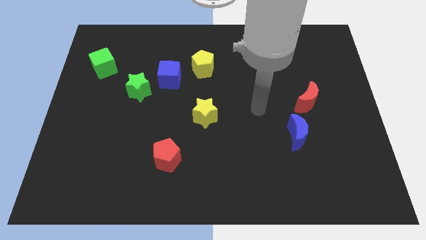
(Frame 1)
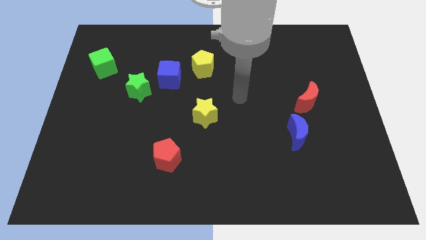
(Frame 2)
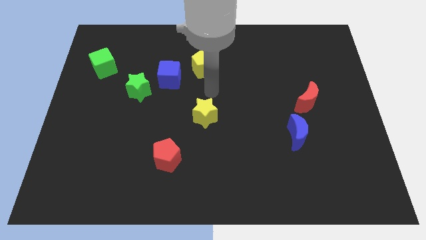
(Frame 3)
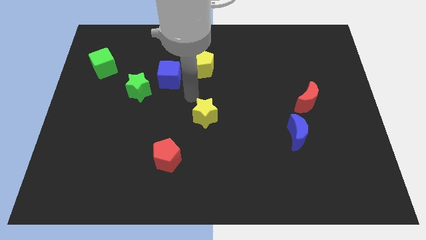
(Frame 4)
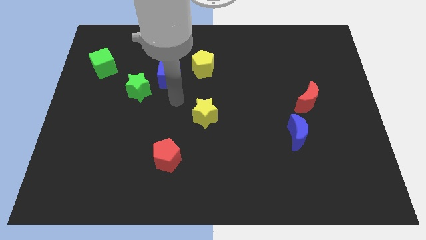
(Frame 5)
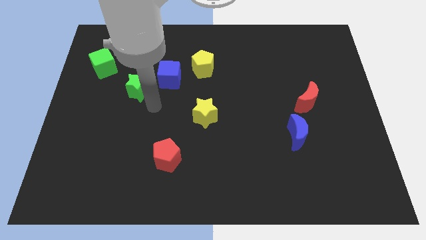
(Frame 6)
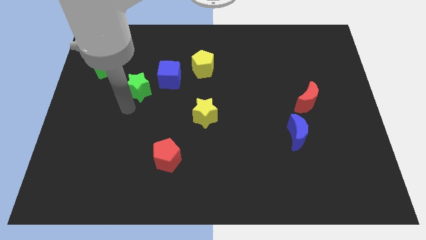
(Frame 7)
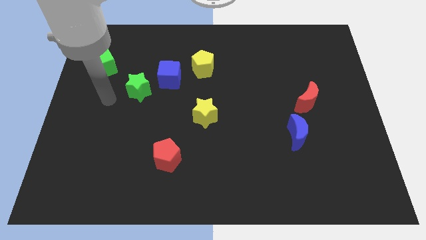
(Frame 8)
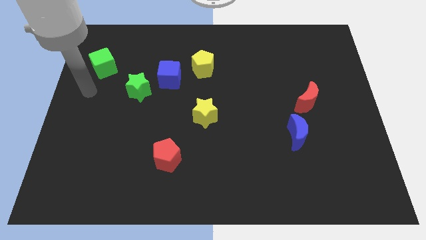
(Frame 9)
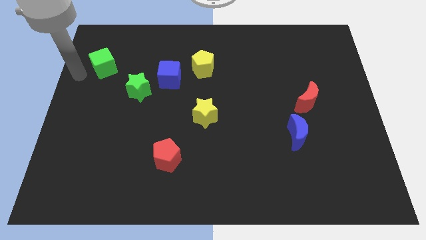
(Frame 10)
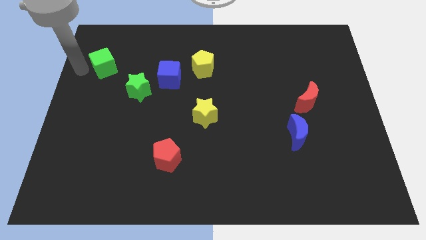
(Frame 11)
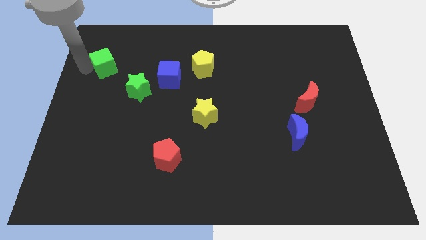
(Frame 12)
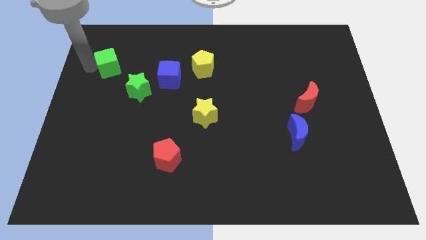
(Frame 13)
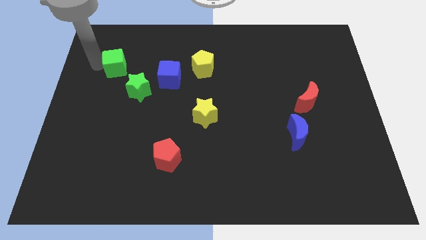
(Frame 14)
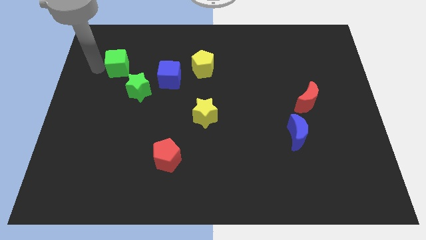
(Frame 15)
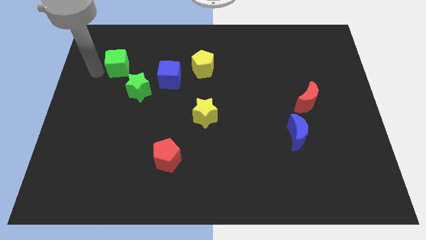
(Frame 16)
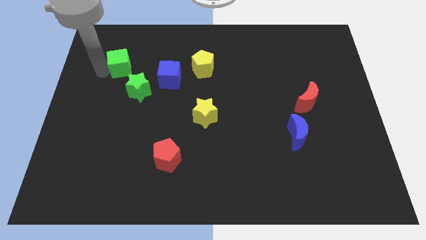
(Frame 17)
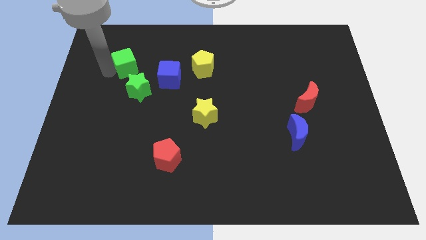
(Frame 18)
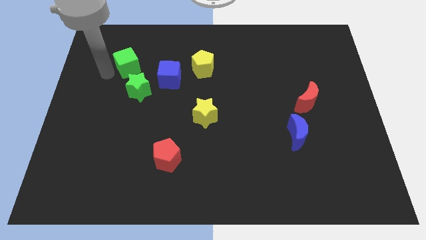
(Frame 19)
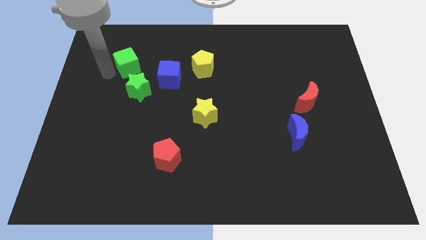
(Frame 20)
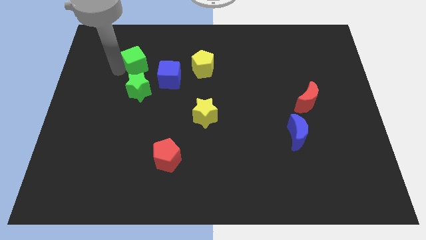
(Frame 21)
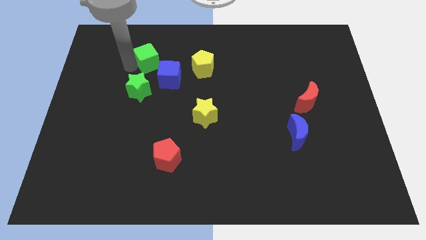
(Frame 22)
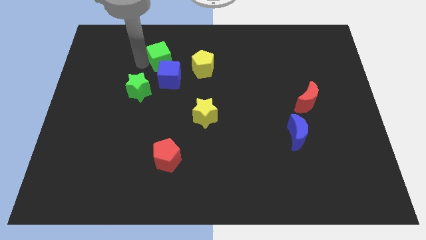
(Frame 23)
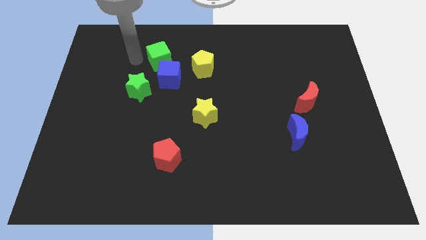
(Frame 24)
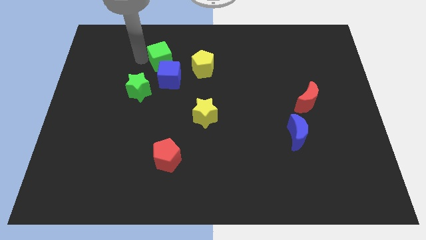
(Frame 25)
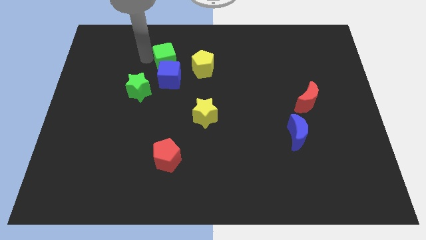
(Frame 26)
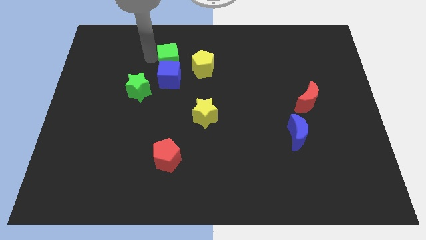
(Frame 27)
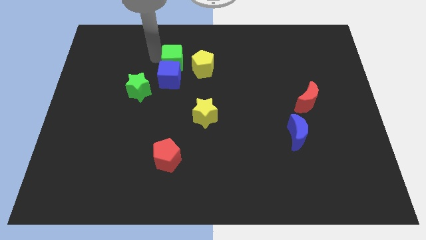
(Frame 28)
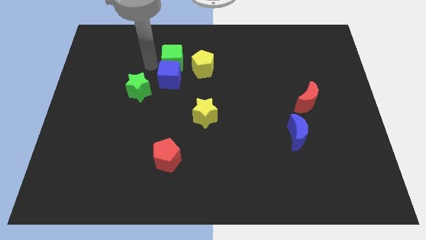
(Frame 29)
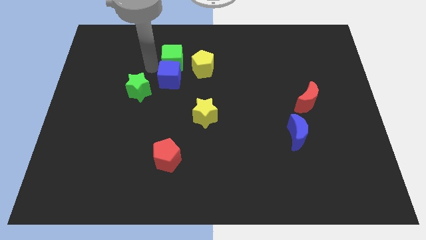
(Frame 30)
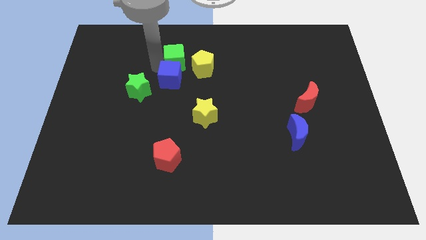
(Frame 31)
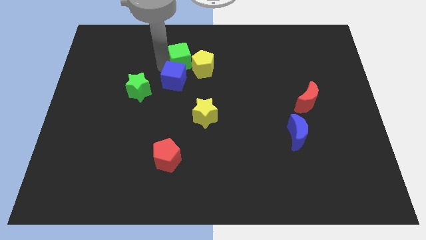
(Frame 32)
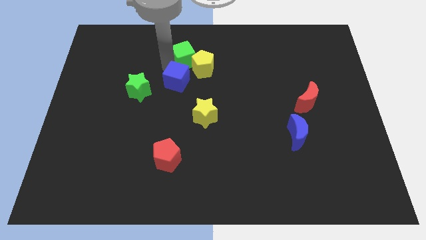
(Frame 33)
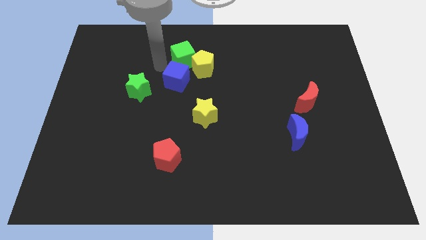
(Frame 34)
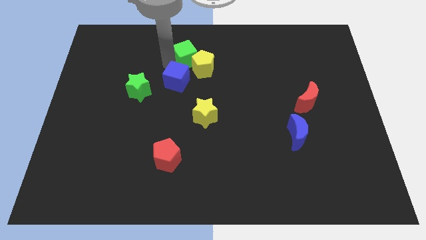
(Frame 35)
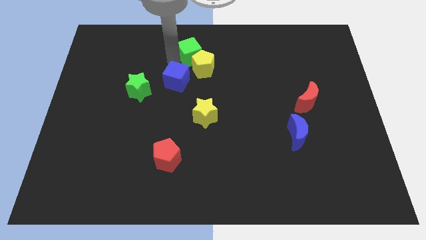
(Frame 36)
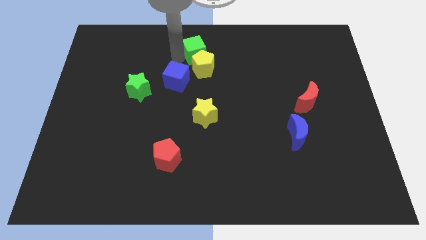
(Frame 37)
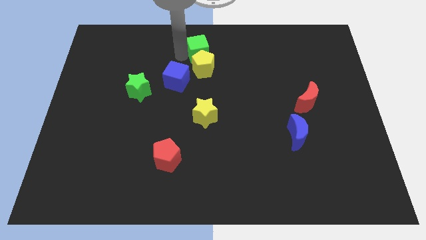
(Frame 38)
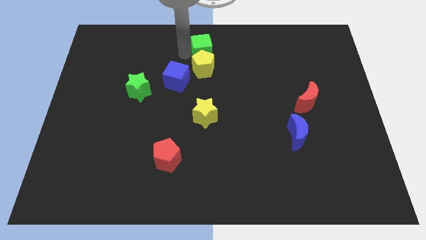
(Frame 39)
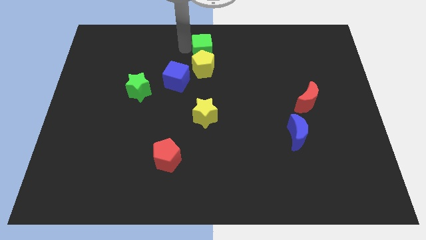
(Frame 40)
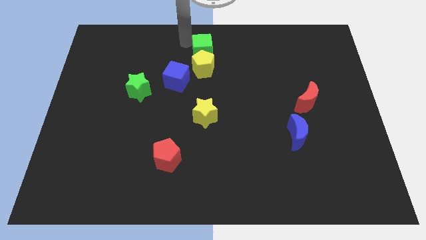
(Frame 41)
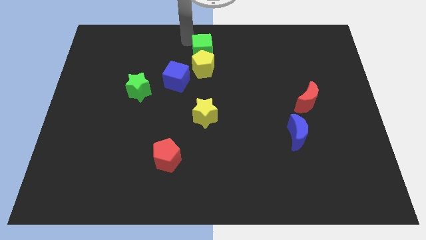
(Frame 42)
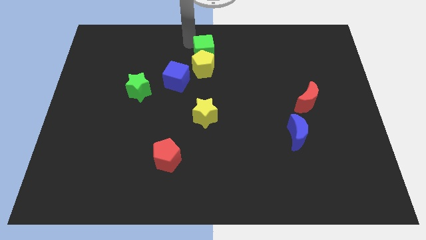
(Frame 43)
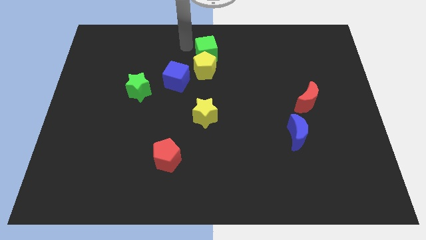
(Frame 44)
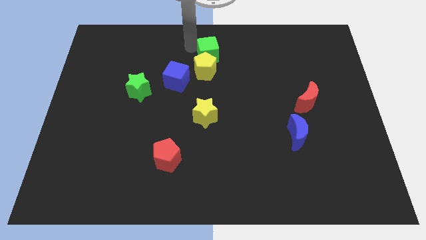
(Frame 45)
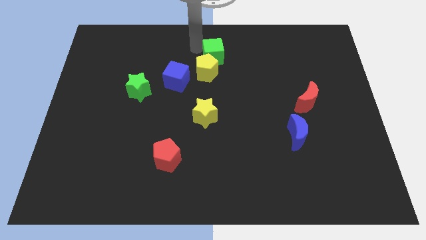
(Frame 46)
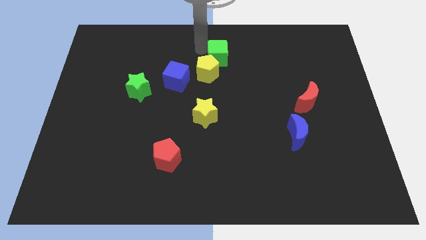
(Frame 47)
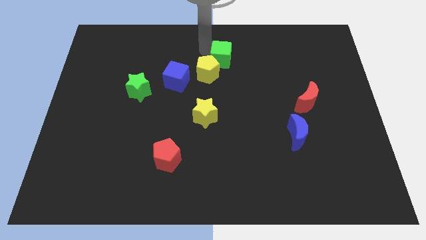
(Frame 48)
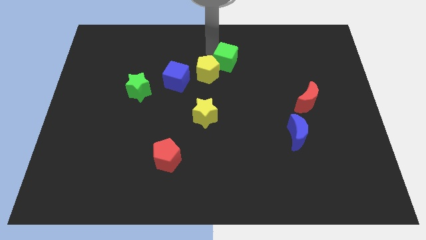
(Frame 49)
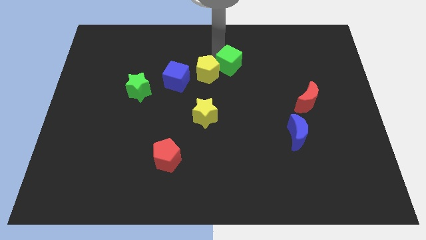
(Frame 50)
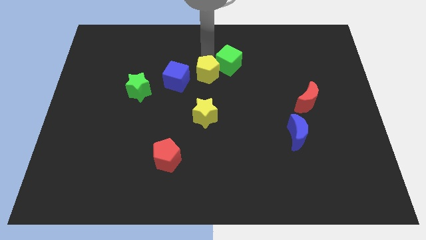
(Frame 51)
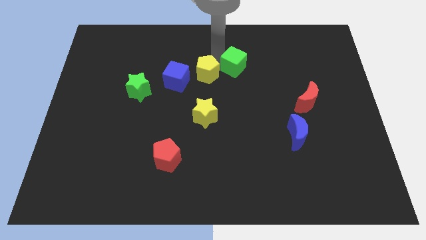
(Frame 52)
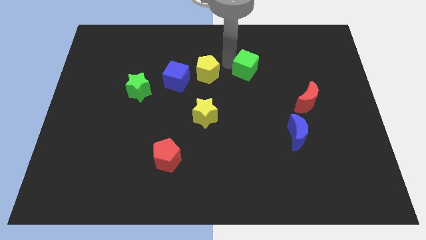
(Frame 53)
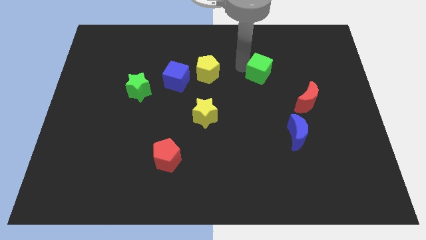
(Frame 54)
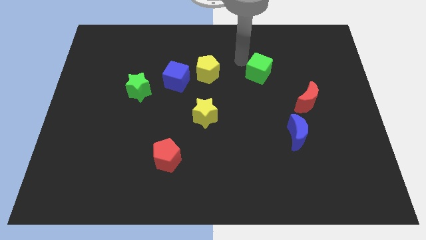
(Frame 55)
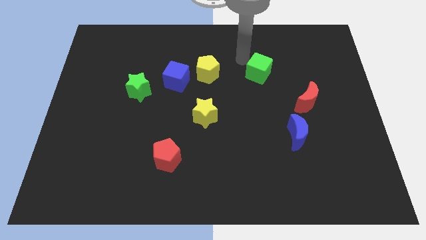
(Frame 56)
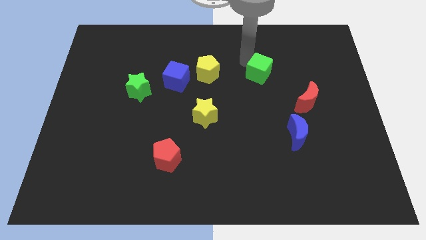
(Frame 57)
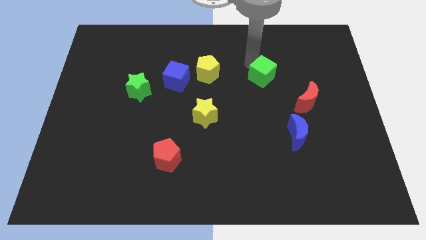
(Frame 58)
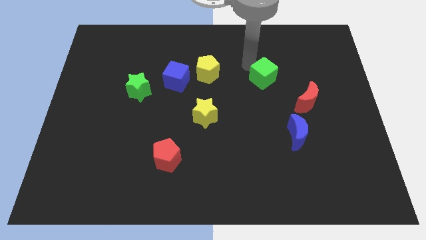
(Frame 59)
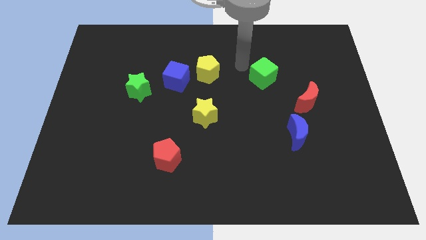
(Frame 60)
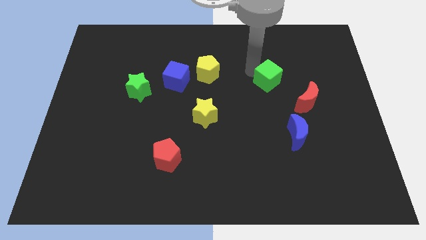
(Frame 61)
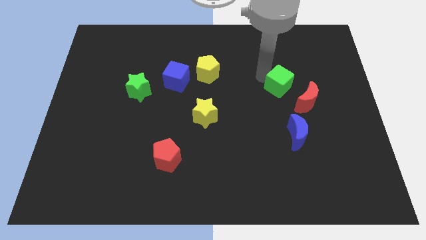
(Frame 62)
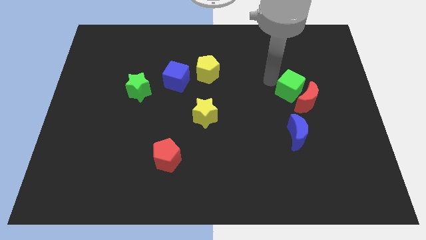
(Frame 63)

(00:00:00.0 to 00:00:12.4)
put the green cube to the red moon

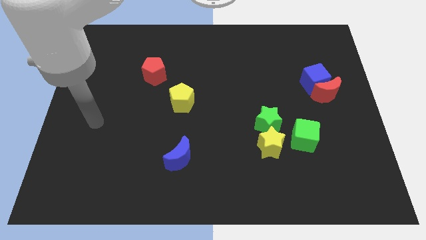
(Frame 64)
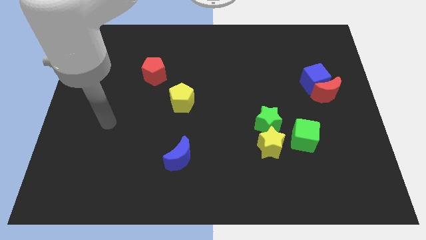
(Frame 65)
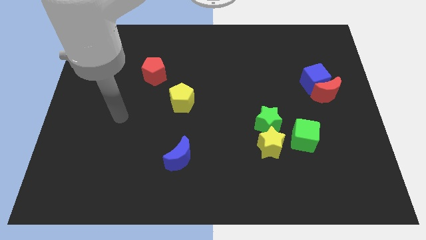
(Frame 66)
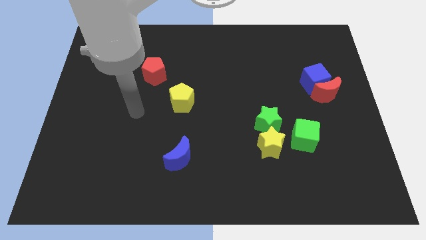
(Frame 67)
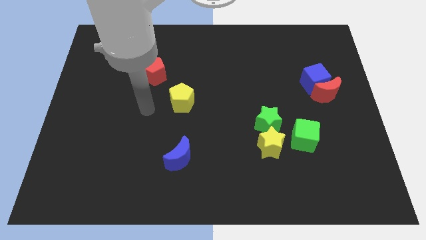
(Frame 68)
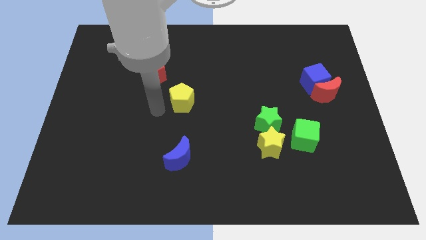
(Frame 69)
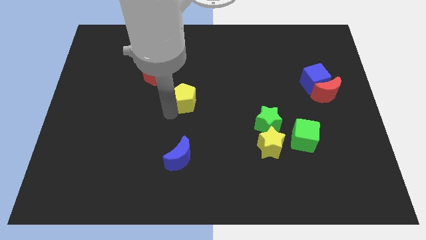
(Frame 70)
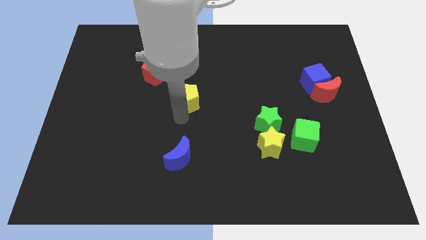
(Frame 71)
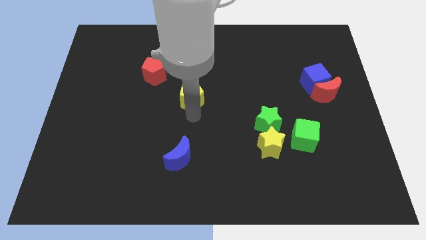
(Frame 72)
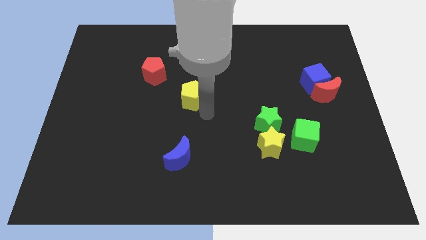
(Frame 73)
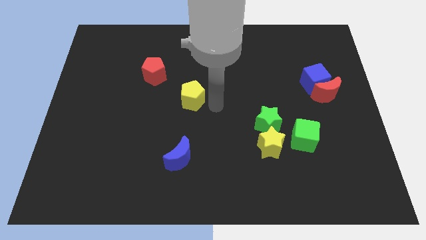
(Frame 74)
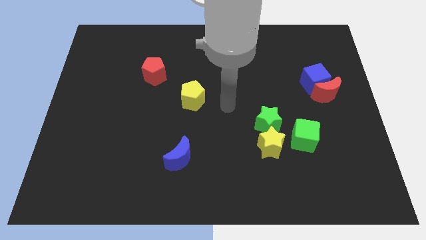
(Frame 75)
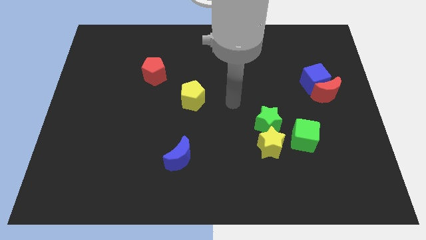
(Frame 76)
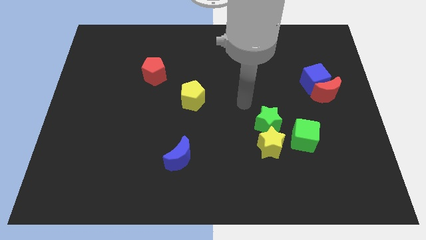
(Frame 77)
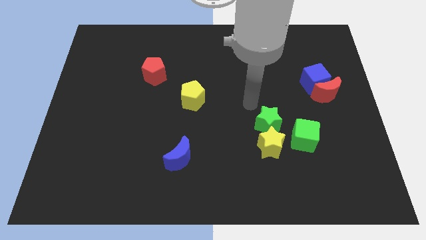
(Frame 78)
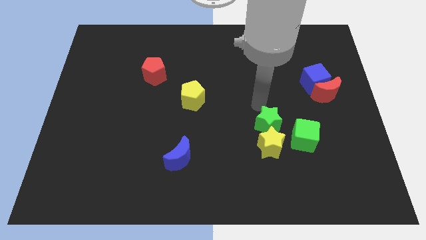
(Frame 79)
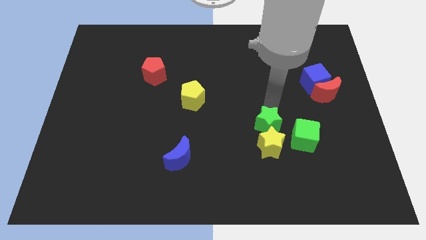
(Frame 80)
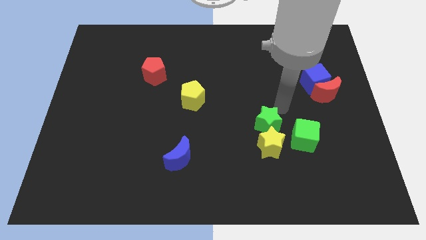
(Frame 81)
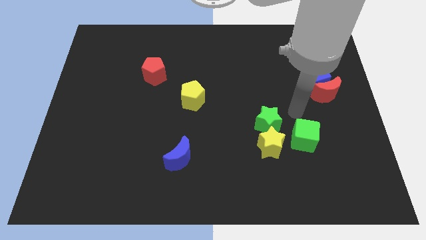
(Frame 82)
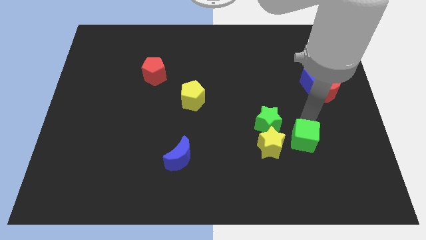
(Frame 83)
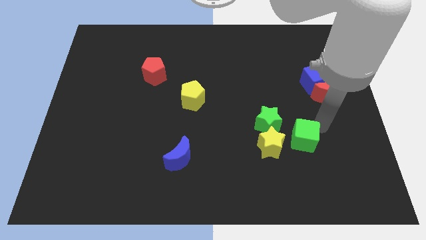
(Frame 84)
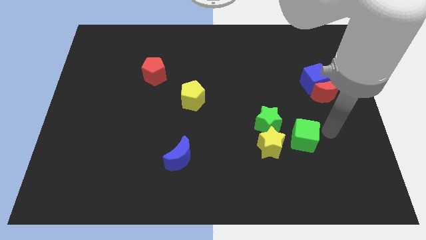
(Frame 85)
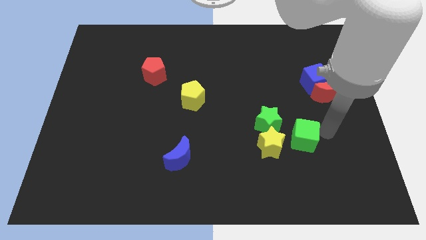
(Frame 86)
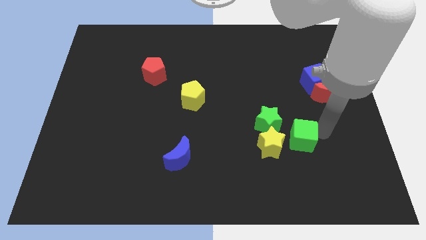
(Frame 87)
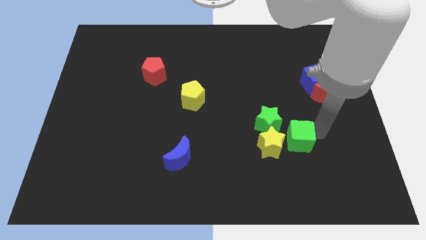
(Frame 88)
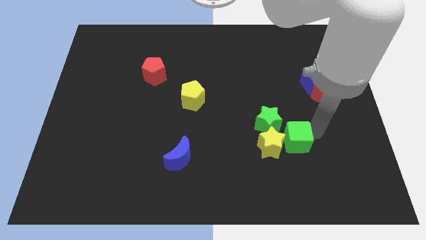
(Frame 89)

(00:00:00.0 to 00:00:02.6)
move the green cube close to the yellow star
